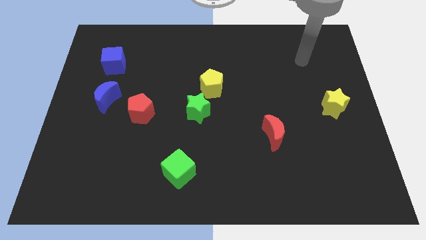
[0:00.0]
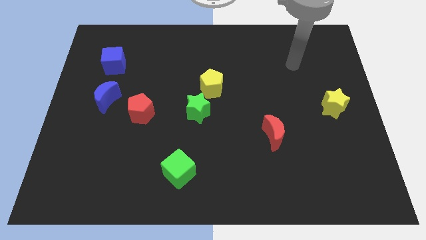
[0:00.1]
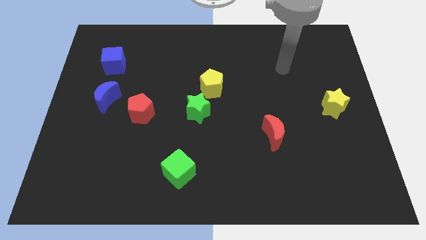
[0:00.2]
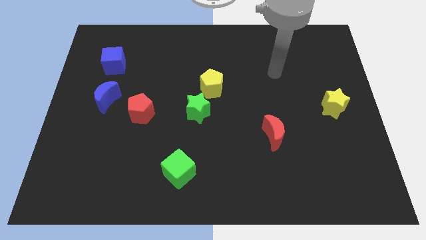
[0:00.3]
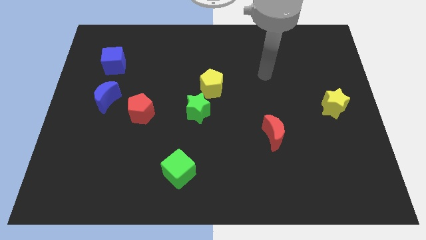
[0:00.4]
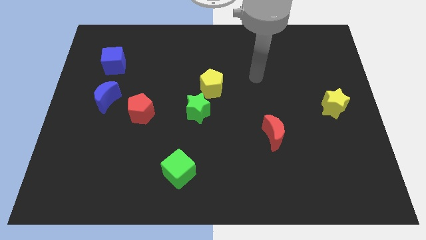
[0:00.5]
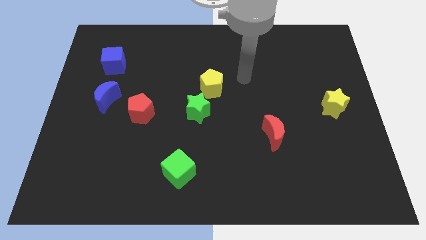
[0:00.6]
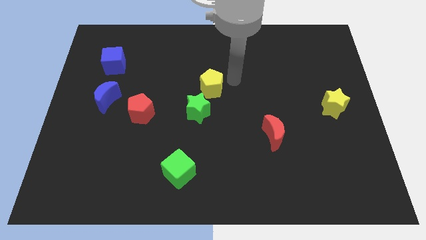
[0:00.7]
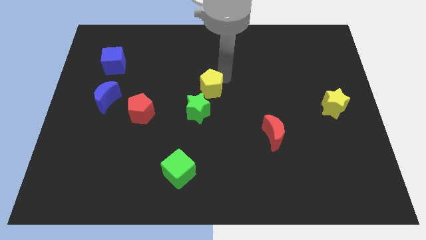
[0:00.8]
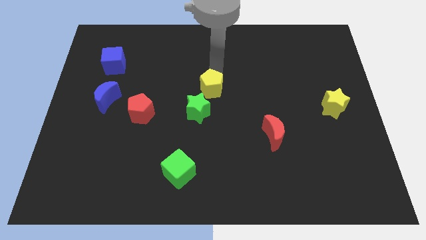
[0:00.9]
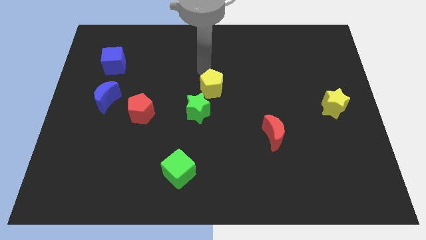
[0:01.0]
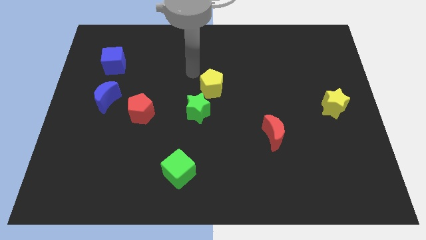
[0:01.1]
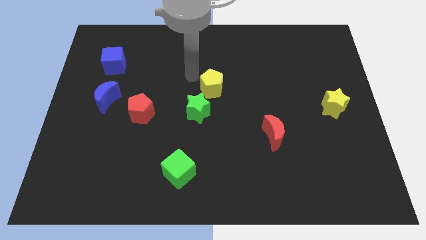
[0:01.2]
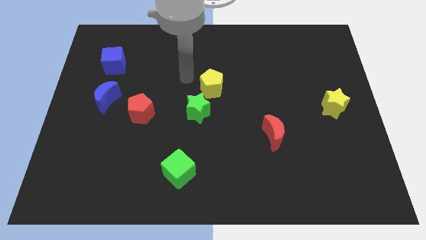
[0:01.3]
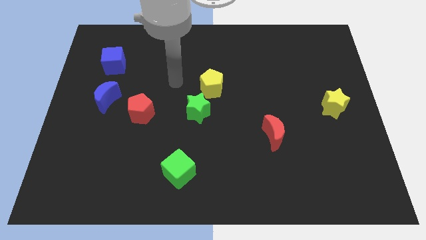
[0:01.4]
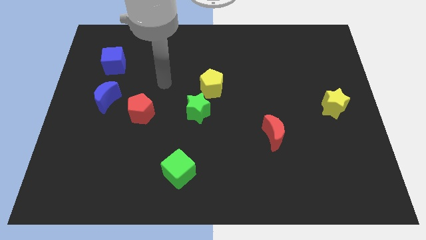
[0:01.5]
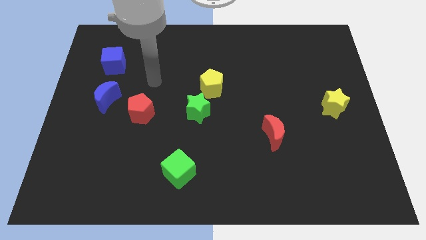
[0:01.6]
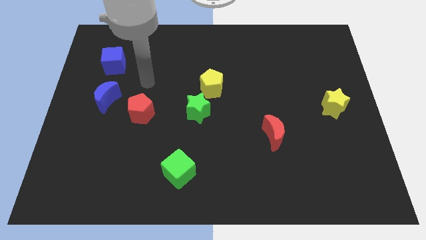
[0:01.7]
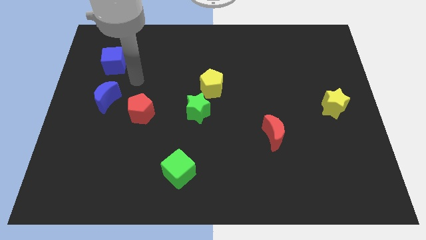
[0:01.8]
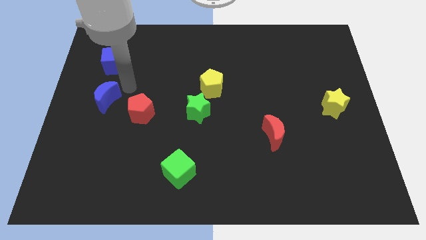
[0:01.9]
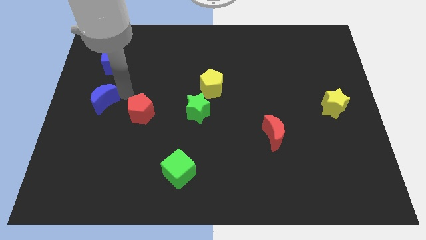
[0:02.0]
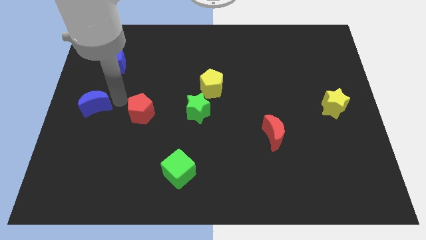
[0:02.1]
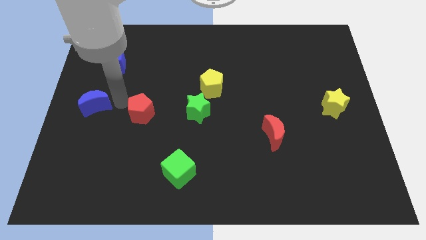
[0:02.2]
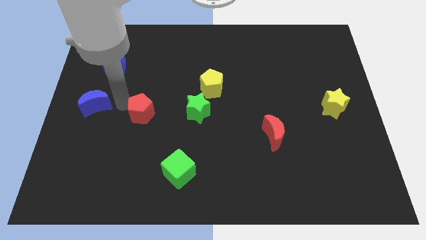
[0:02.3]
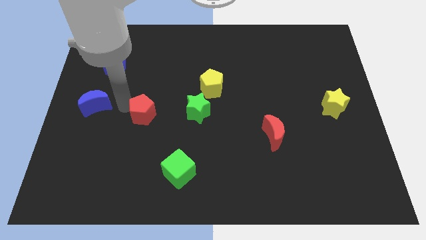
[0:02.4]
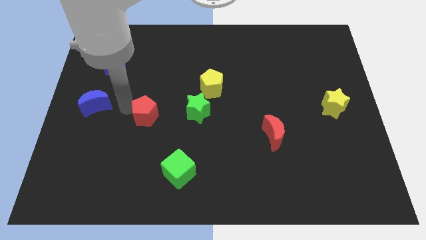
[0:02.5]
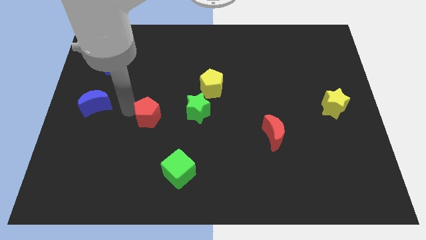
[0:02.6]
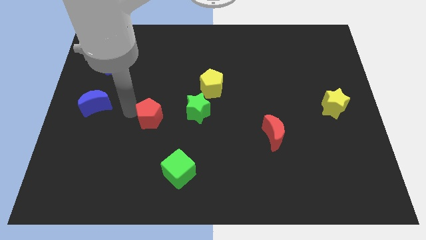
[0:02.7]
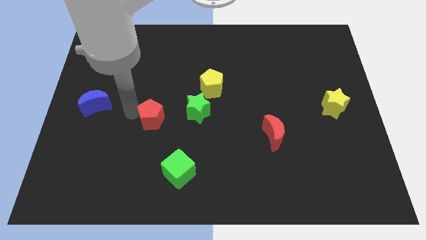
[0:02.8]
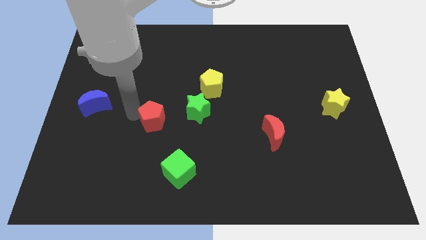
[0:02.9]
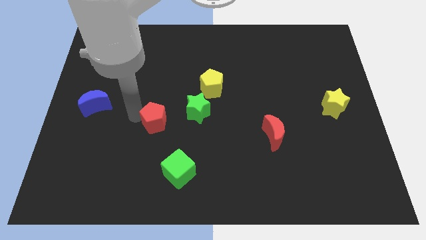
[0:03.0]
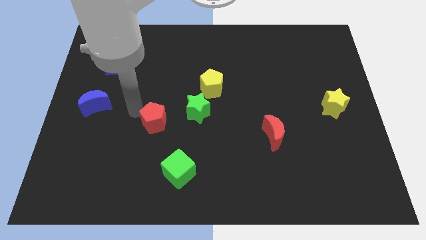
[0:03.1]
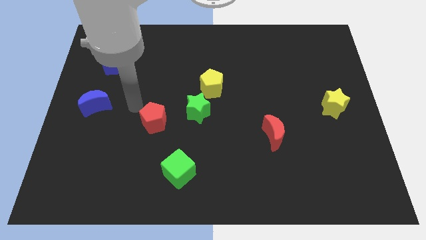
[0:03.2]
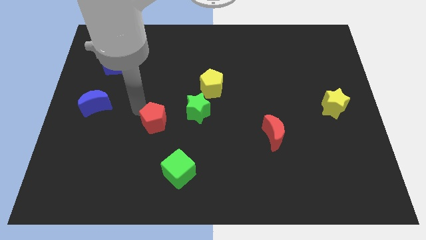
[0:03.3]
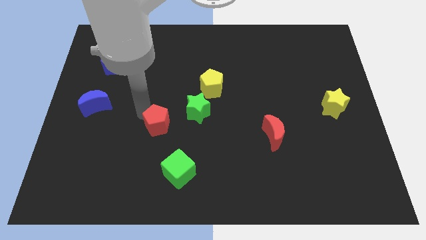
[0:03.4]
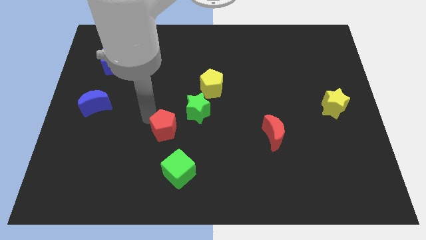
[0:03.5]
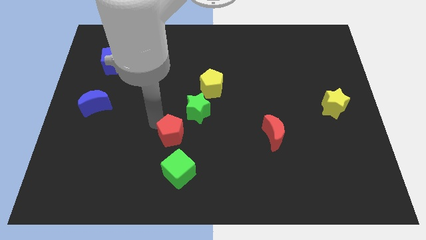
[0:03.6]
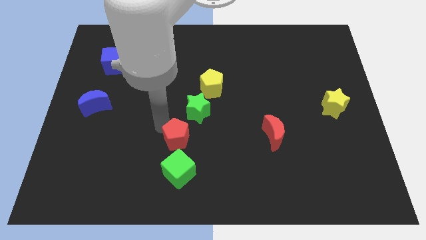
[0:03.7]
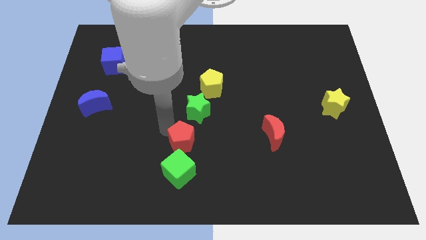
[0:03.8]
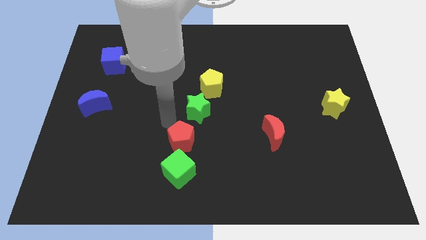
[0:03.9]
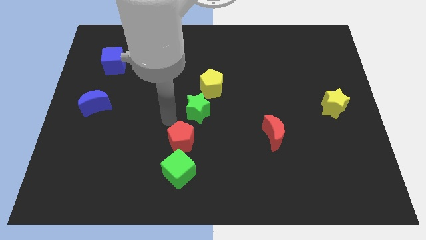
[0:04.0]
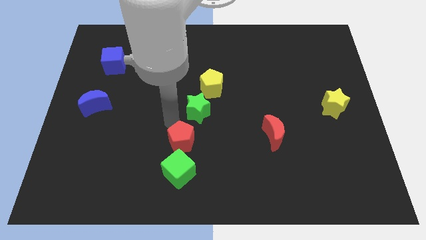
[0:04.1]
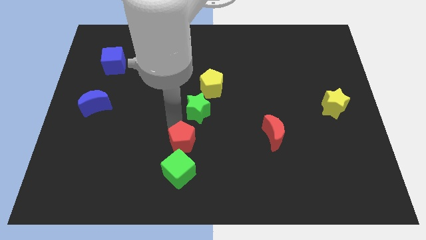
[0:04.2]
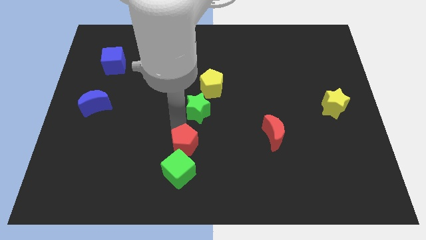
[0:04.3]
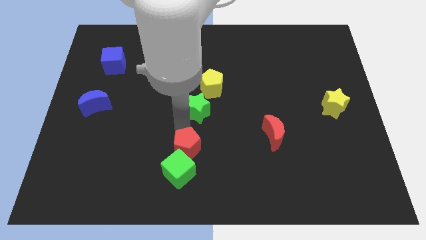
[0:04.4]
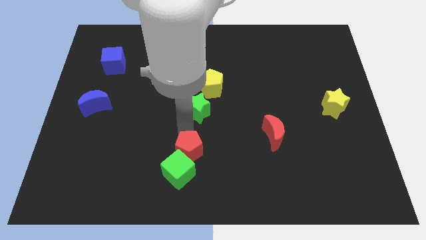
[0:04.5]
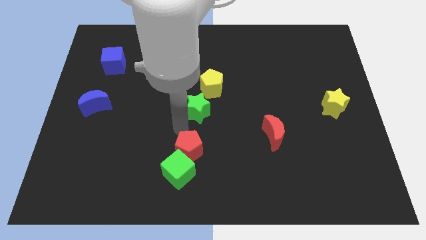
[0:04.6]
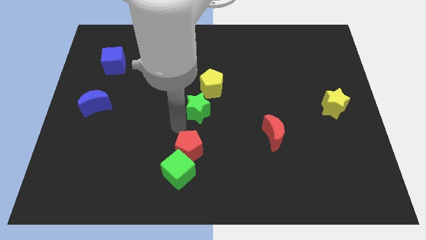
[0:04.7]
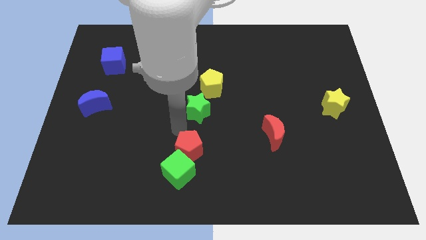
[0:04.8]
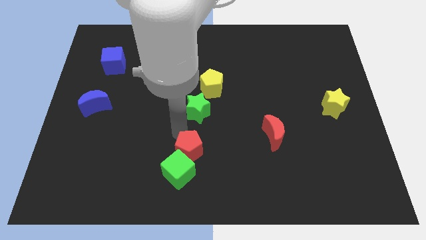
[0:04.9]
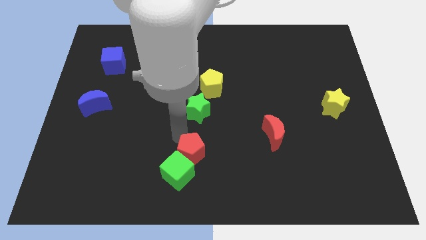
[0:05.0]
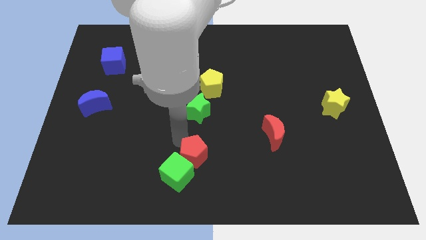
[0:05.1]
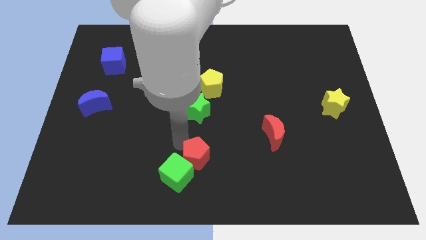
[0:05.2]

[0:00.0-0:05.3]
push the red pentagon to the bottom
